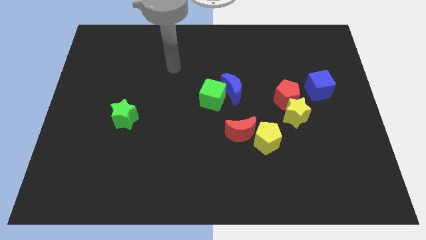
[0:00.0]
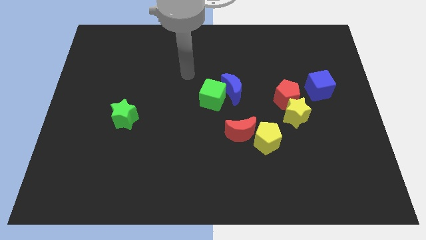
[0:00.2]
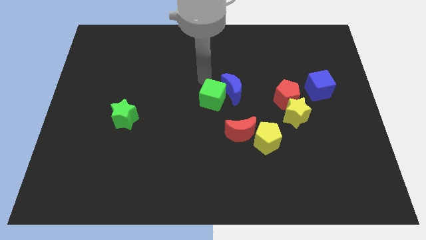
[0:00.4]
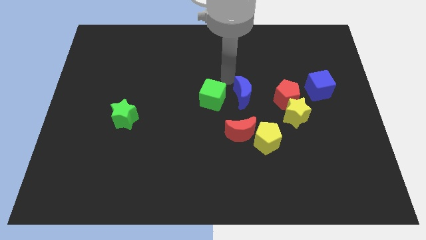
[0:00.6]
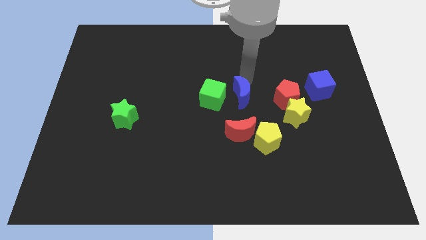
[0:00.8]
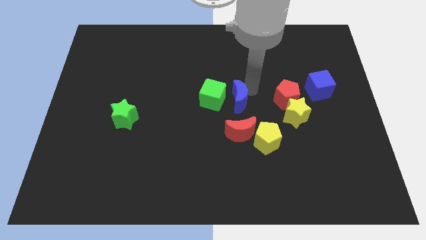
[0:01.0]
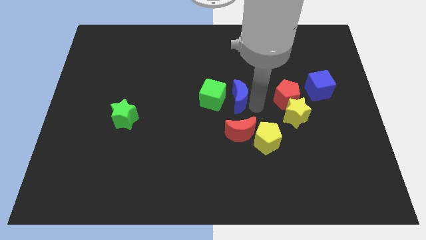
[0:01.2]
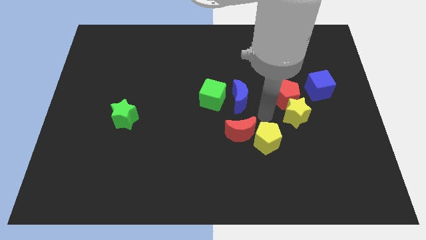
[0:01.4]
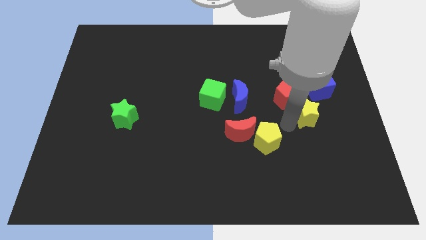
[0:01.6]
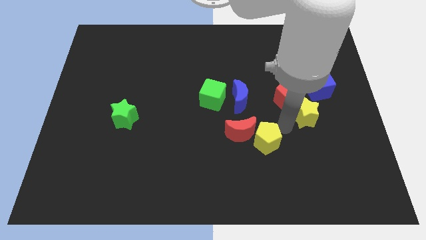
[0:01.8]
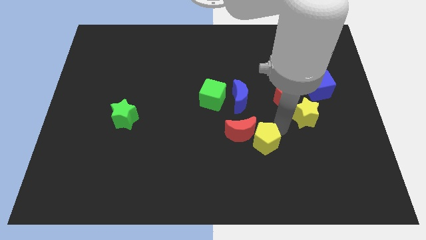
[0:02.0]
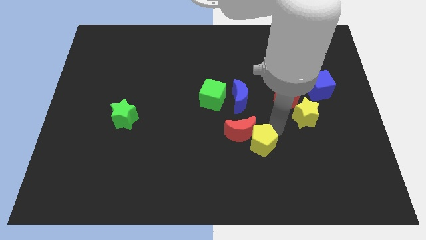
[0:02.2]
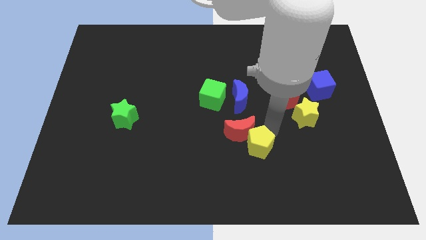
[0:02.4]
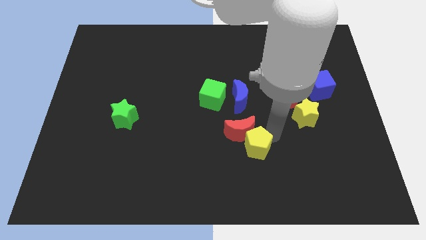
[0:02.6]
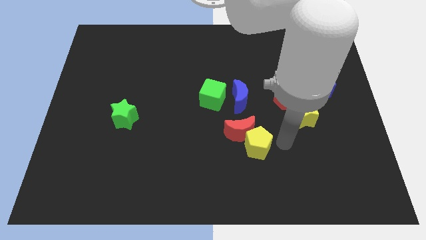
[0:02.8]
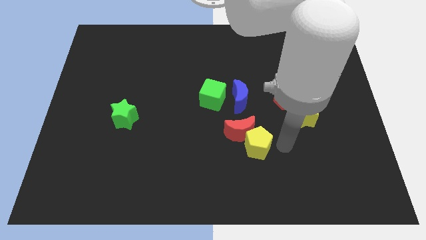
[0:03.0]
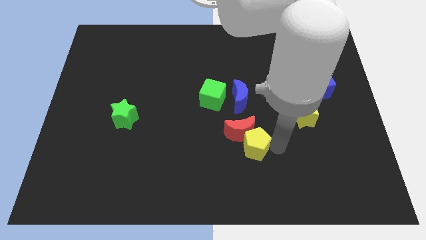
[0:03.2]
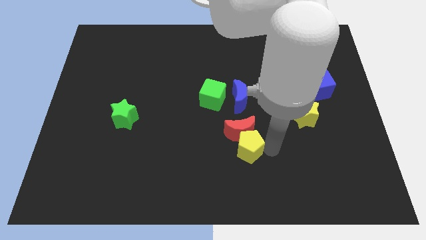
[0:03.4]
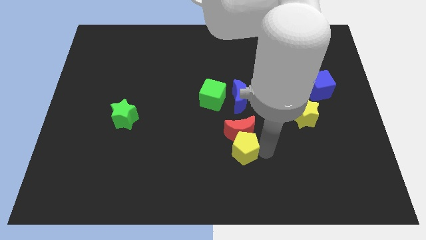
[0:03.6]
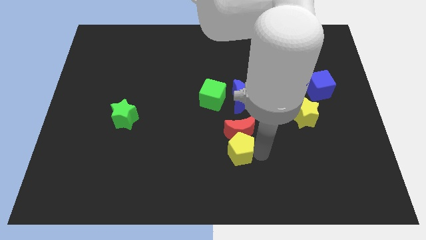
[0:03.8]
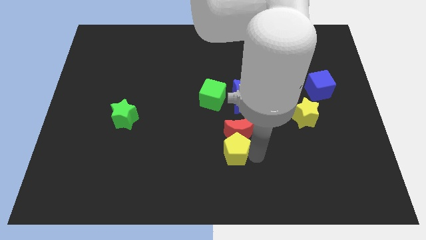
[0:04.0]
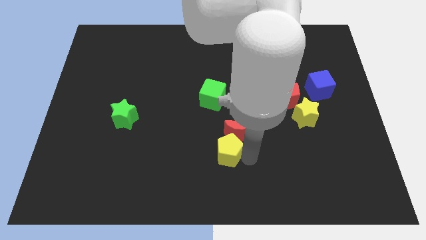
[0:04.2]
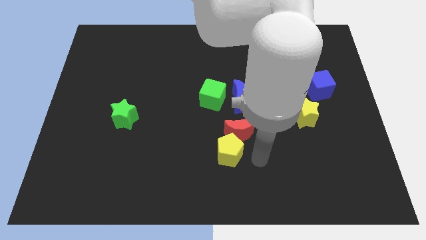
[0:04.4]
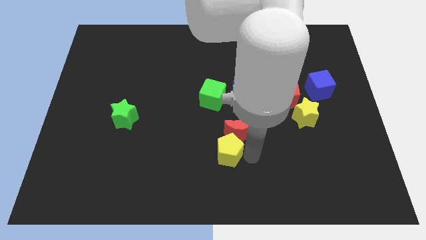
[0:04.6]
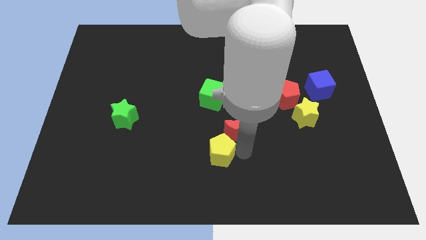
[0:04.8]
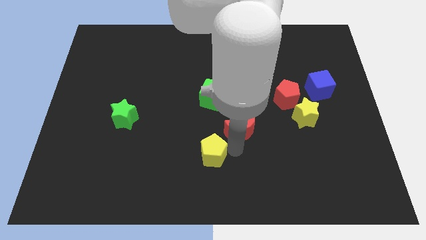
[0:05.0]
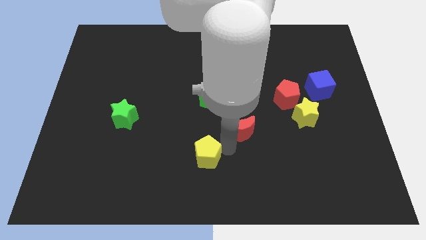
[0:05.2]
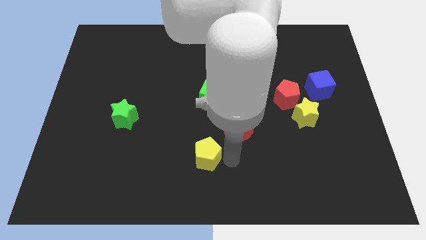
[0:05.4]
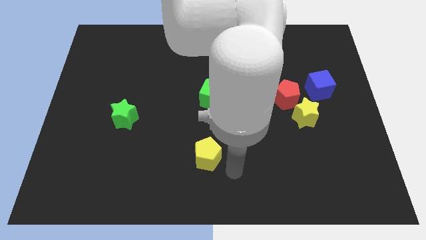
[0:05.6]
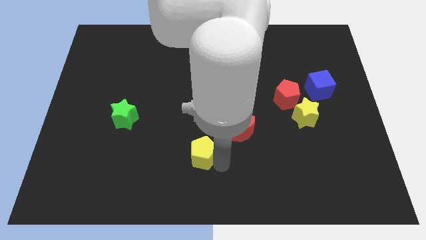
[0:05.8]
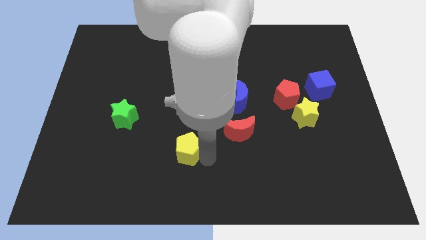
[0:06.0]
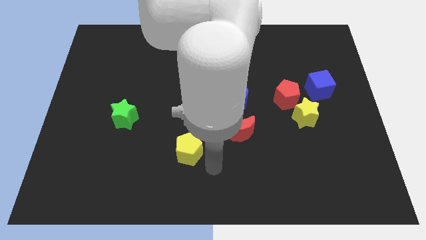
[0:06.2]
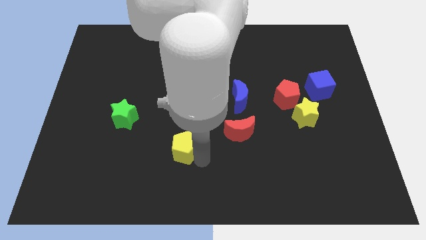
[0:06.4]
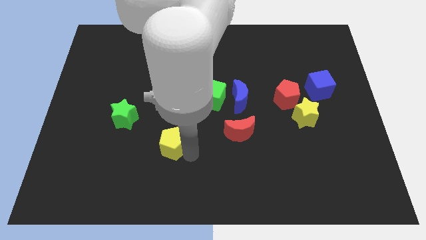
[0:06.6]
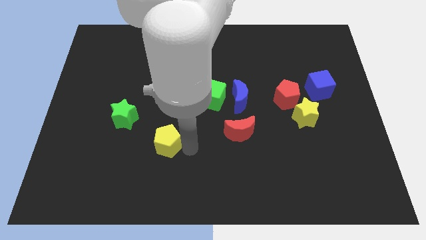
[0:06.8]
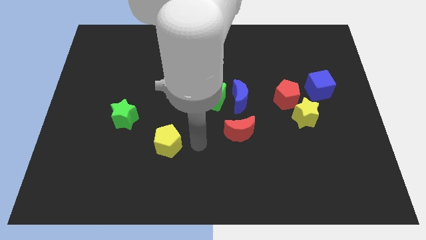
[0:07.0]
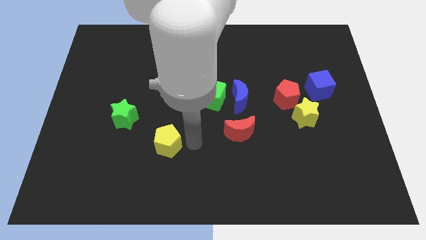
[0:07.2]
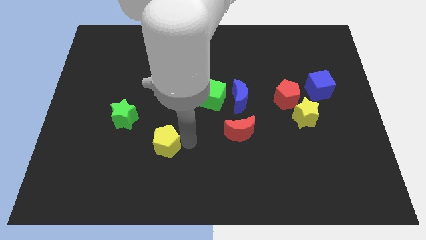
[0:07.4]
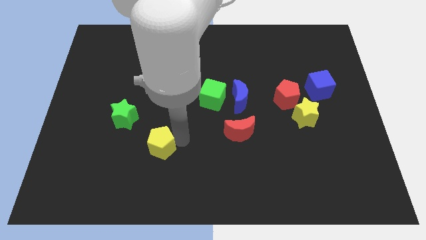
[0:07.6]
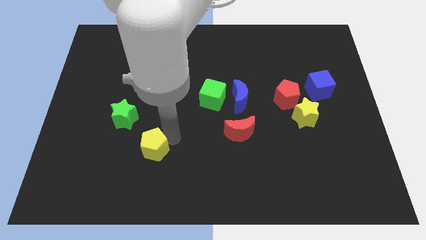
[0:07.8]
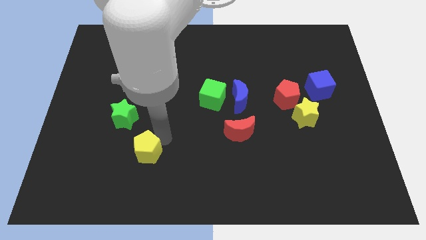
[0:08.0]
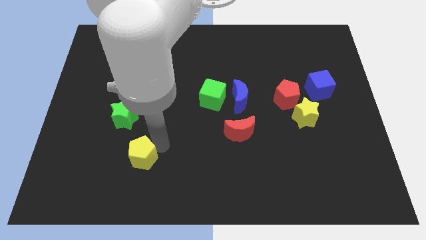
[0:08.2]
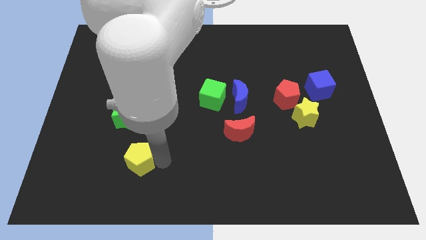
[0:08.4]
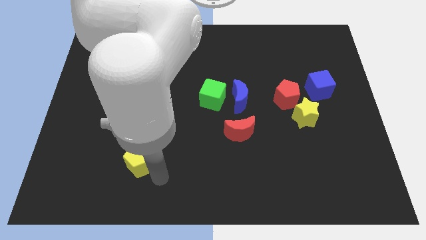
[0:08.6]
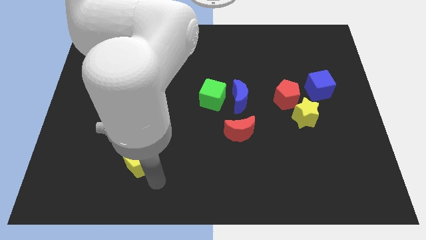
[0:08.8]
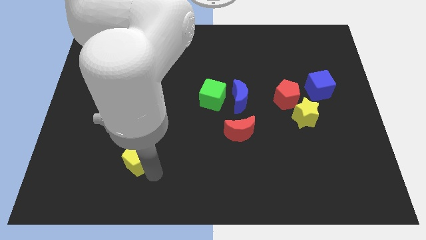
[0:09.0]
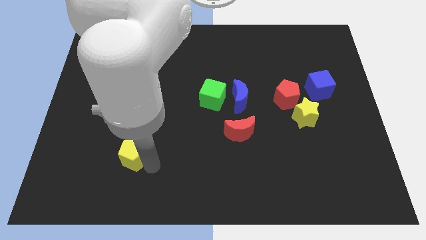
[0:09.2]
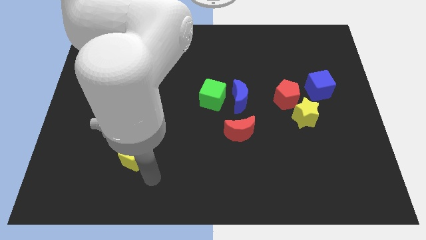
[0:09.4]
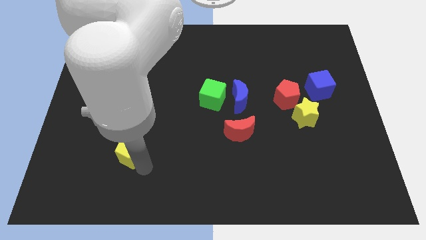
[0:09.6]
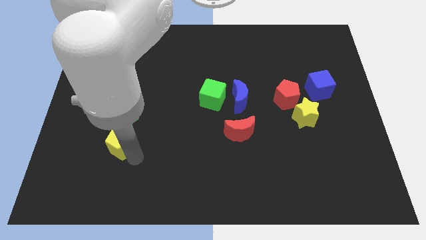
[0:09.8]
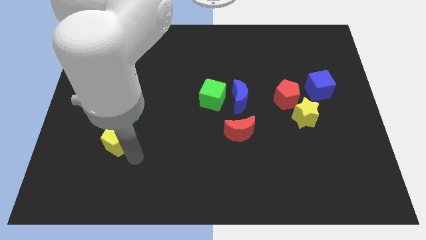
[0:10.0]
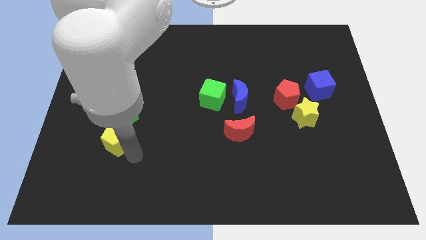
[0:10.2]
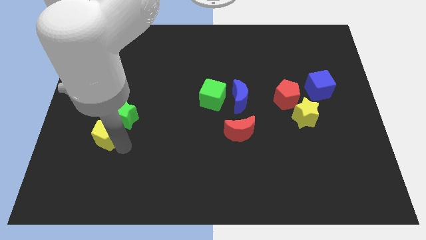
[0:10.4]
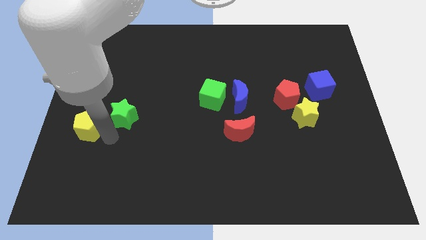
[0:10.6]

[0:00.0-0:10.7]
put the yellow pentagon to the left side of the board
